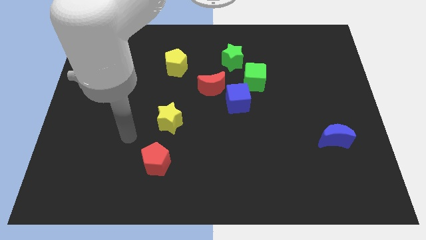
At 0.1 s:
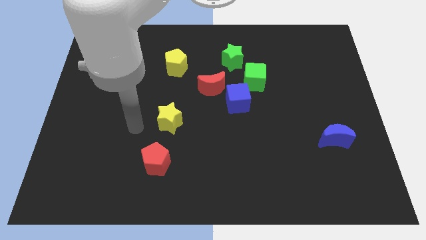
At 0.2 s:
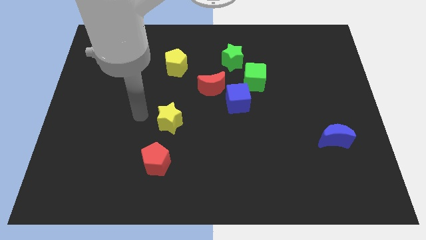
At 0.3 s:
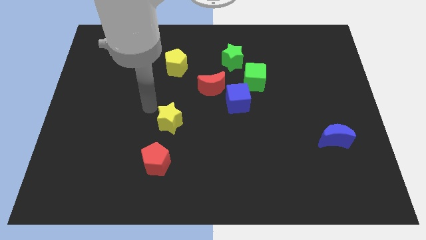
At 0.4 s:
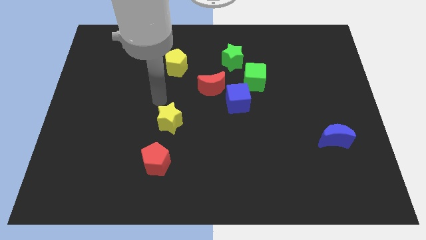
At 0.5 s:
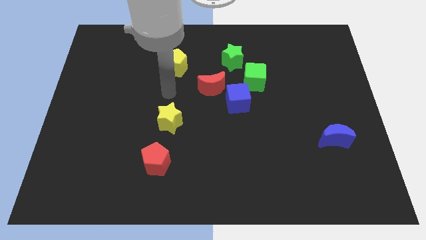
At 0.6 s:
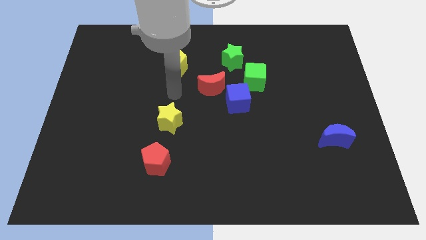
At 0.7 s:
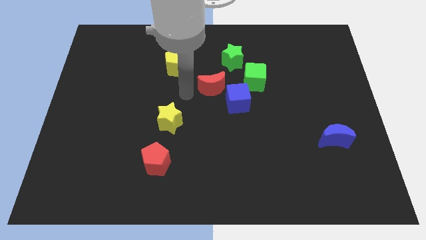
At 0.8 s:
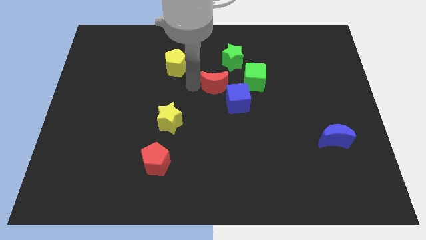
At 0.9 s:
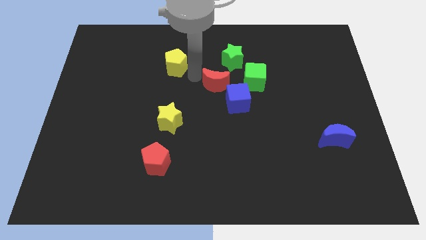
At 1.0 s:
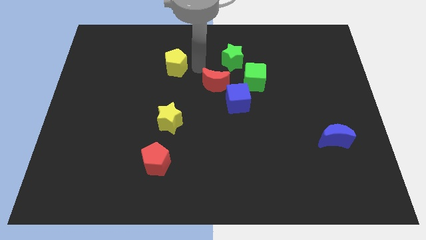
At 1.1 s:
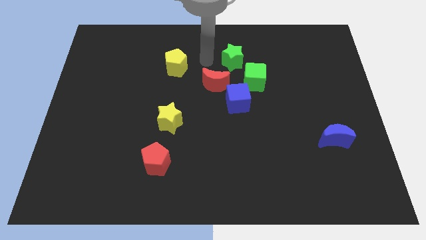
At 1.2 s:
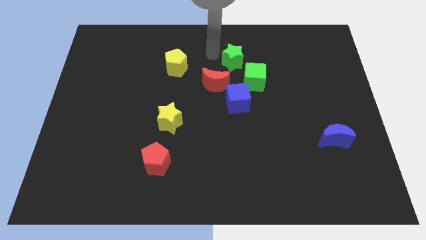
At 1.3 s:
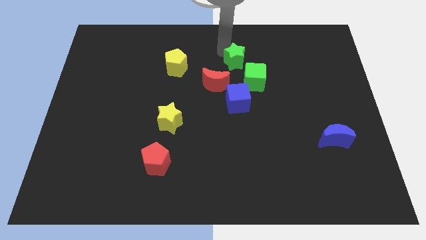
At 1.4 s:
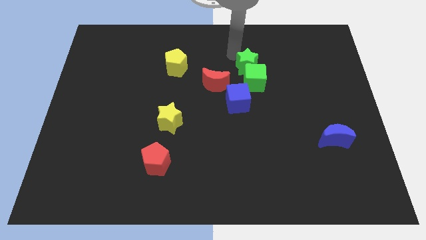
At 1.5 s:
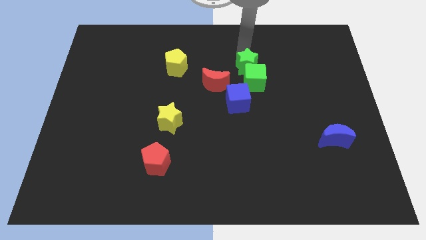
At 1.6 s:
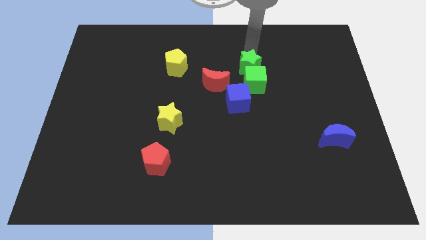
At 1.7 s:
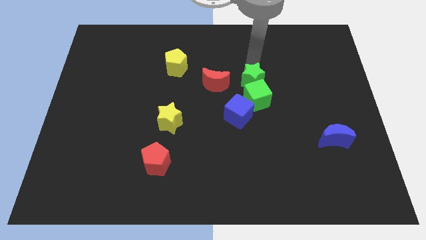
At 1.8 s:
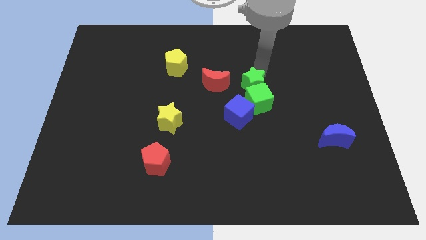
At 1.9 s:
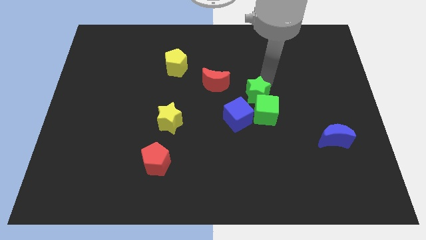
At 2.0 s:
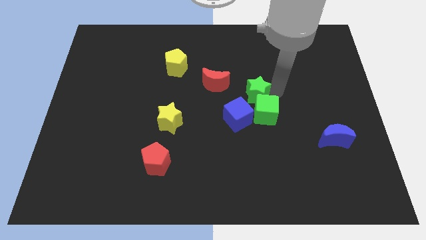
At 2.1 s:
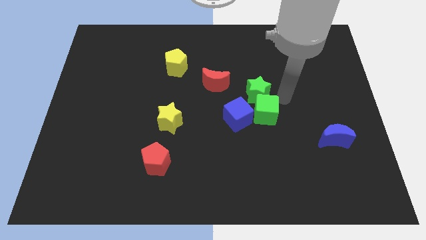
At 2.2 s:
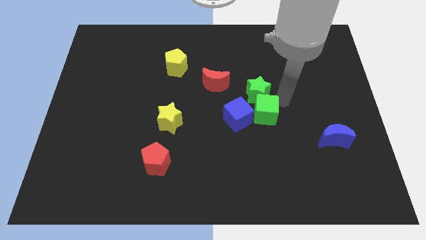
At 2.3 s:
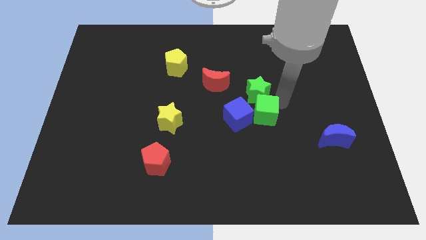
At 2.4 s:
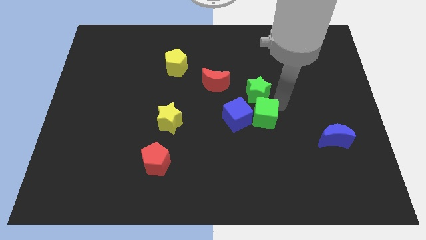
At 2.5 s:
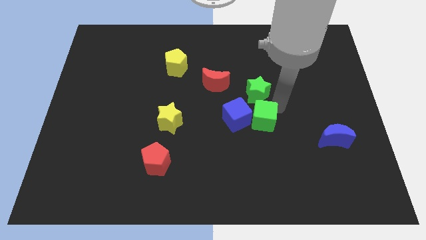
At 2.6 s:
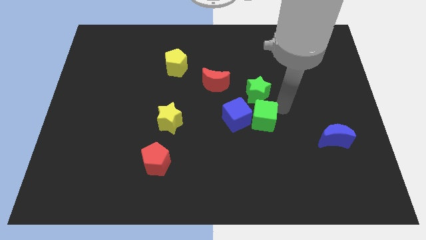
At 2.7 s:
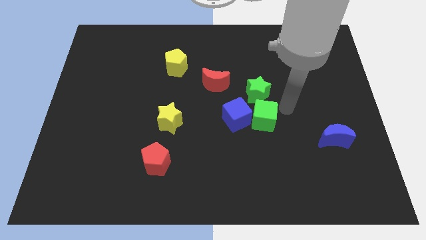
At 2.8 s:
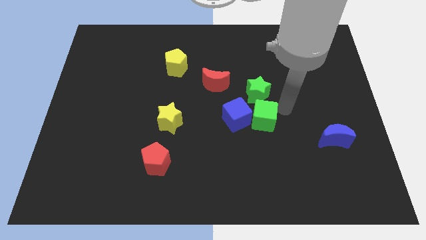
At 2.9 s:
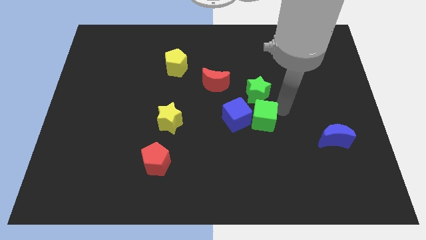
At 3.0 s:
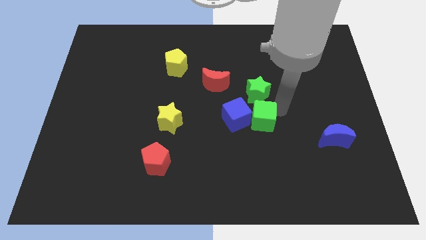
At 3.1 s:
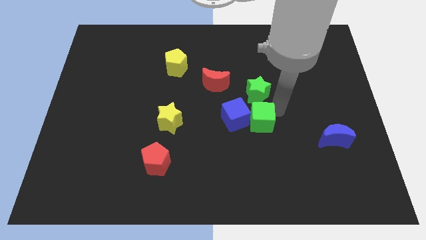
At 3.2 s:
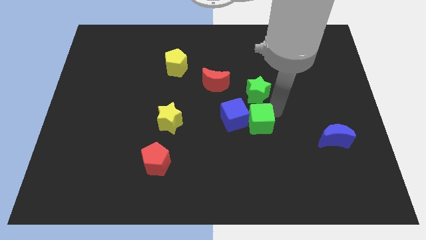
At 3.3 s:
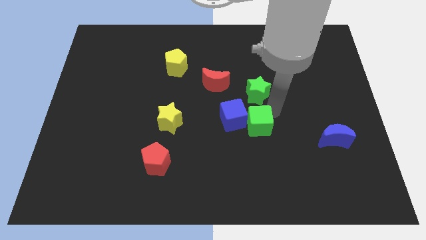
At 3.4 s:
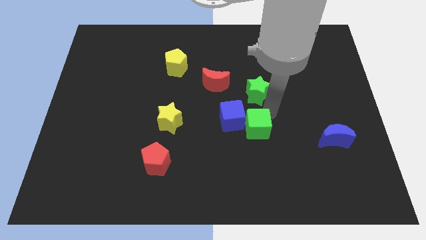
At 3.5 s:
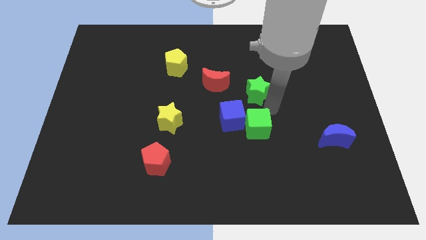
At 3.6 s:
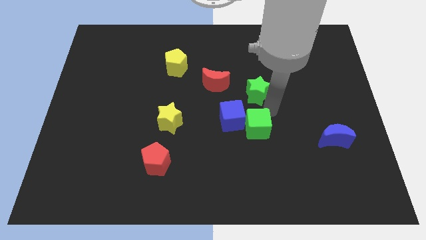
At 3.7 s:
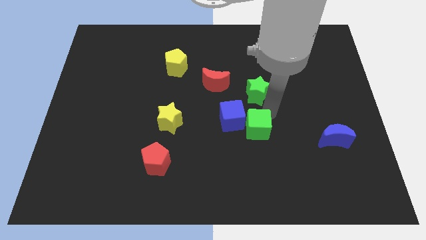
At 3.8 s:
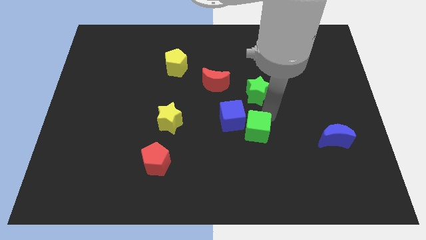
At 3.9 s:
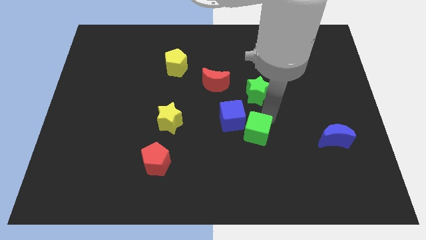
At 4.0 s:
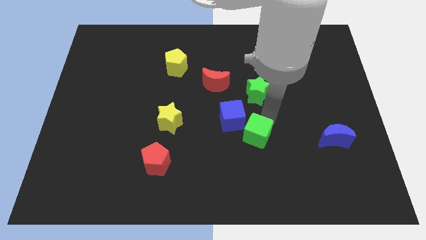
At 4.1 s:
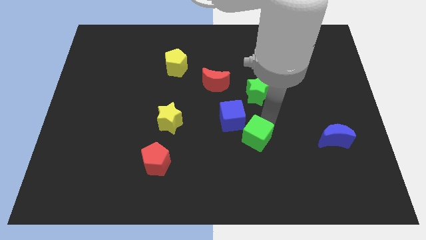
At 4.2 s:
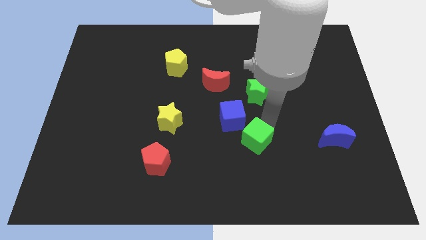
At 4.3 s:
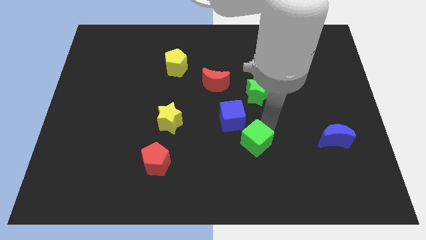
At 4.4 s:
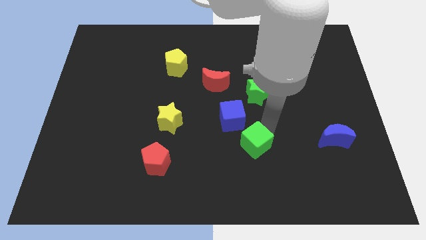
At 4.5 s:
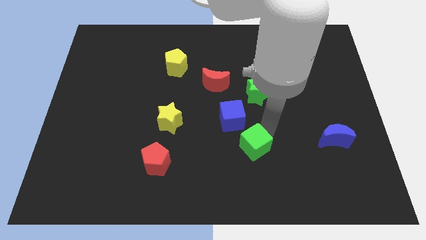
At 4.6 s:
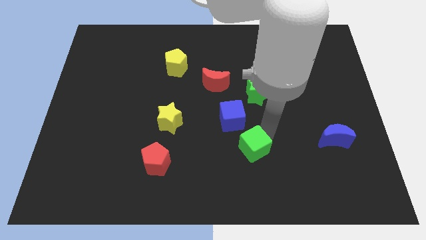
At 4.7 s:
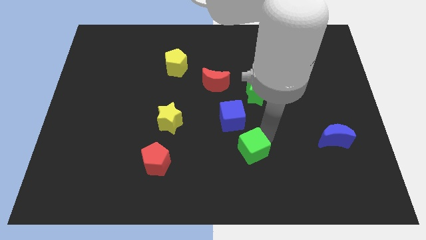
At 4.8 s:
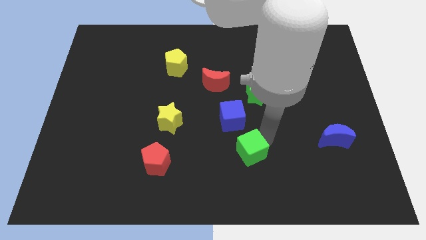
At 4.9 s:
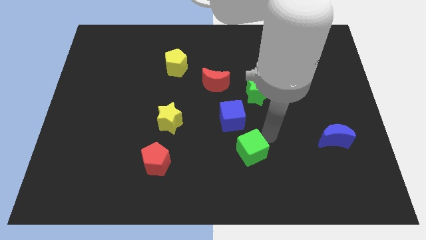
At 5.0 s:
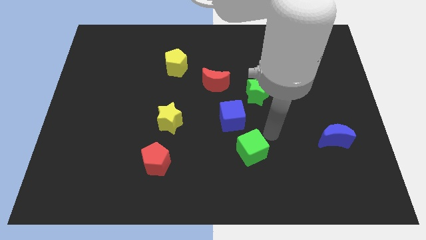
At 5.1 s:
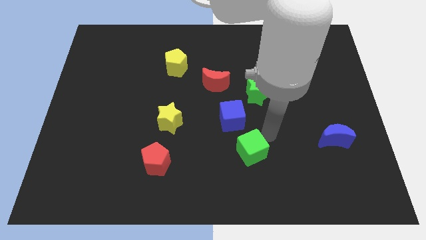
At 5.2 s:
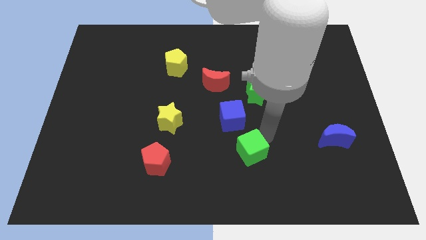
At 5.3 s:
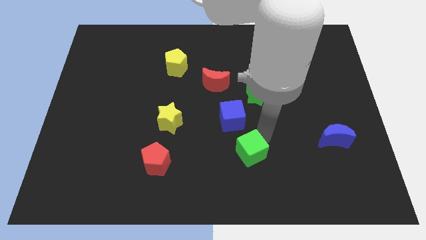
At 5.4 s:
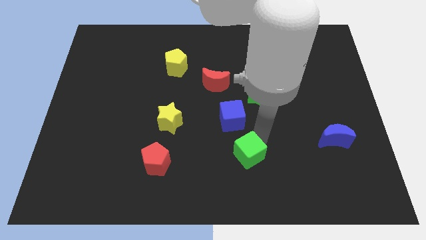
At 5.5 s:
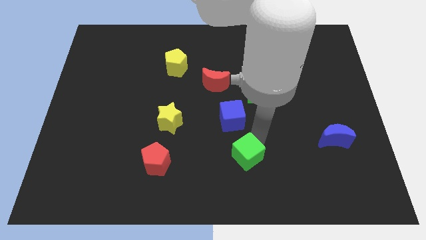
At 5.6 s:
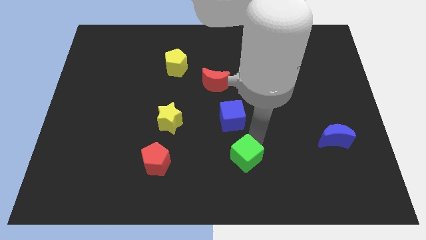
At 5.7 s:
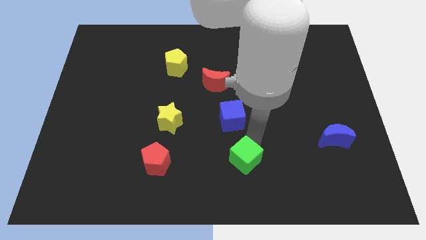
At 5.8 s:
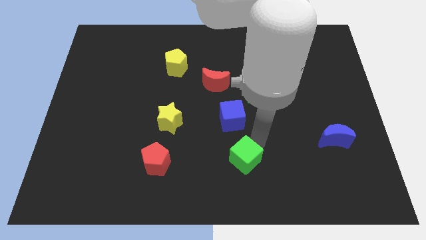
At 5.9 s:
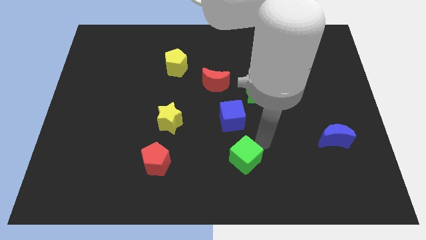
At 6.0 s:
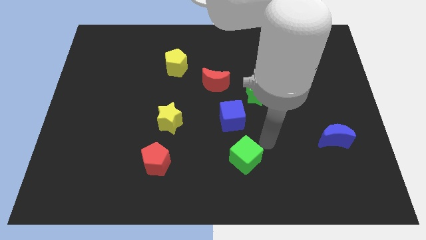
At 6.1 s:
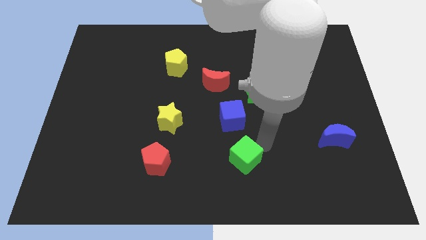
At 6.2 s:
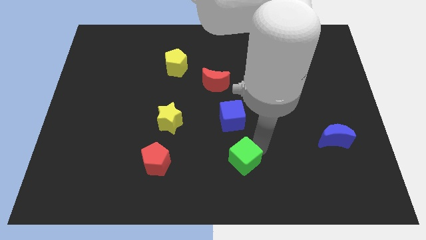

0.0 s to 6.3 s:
slide the green cube to the bottom side

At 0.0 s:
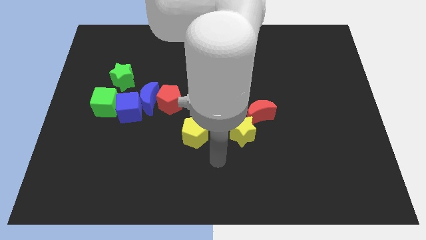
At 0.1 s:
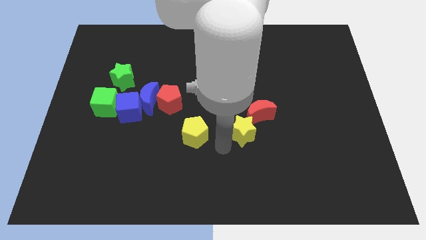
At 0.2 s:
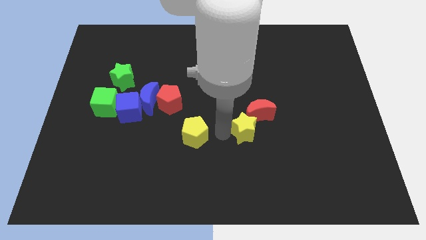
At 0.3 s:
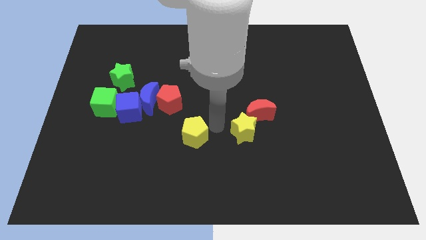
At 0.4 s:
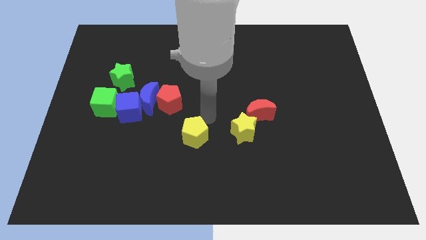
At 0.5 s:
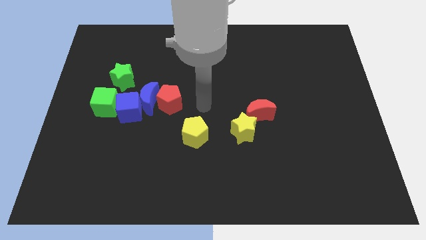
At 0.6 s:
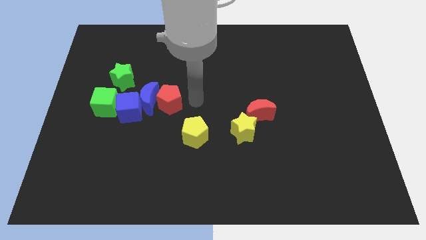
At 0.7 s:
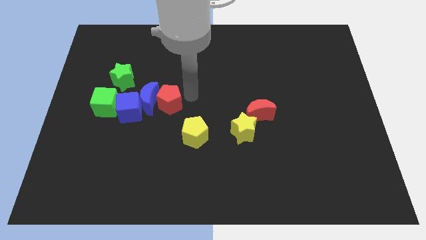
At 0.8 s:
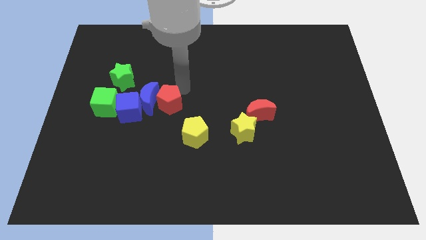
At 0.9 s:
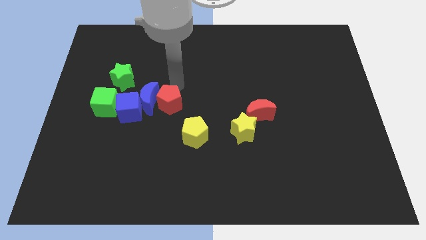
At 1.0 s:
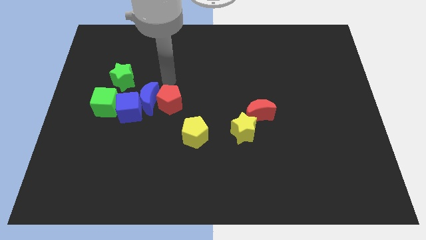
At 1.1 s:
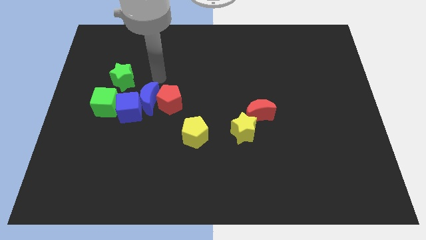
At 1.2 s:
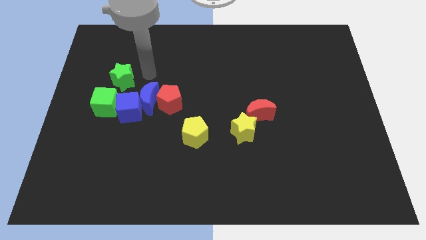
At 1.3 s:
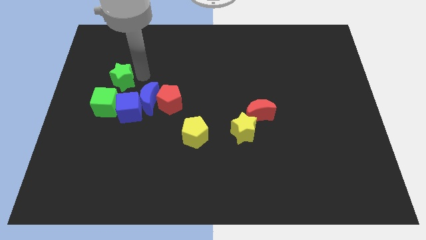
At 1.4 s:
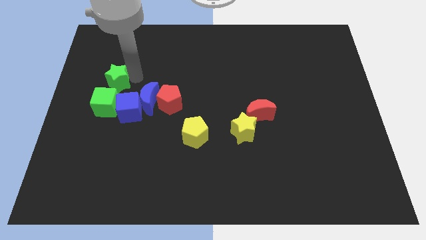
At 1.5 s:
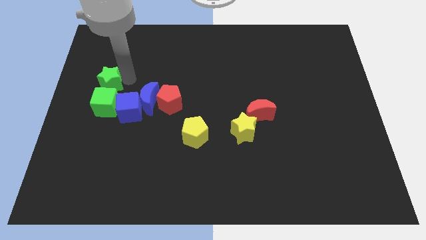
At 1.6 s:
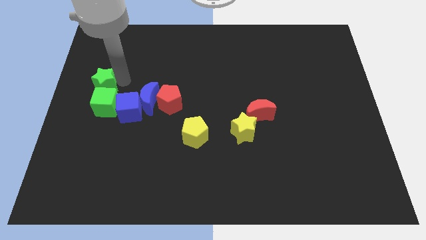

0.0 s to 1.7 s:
push the green star to the center left

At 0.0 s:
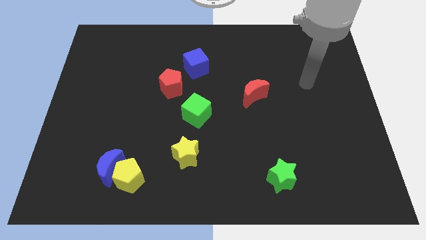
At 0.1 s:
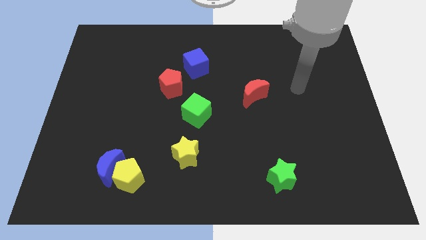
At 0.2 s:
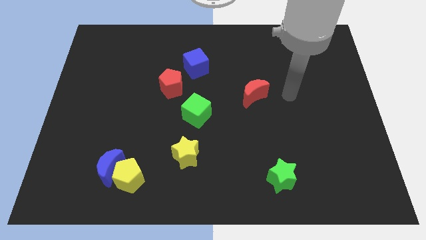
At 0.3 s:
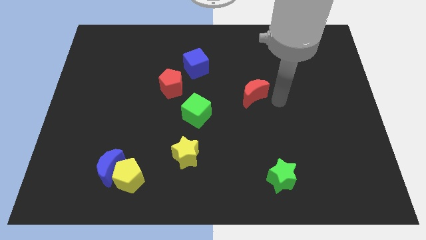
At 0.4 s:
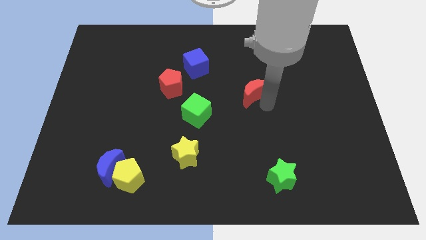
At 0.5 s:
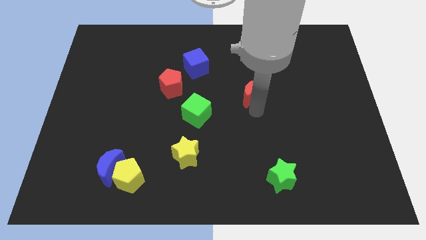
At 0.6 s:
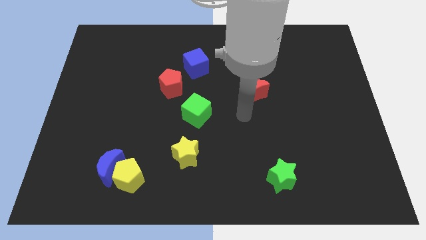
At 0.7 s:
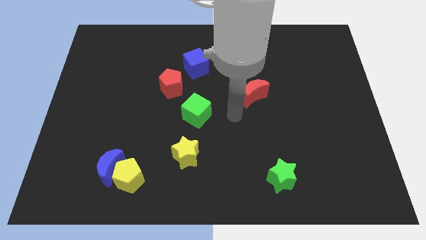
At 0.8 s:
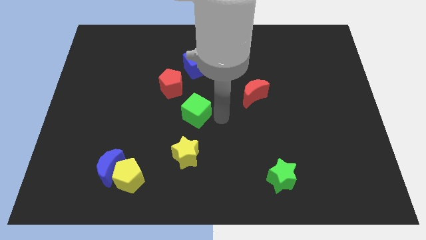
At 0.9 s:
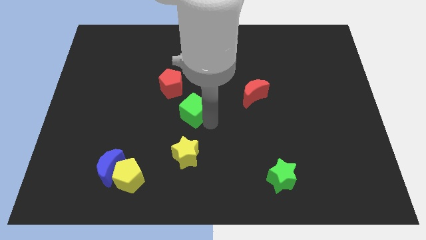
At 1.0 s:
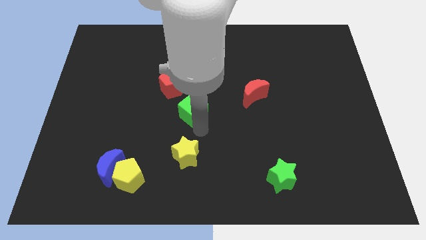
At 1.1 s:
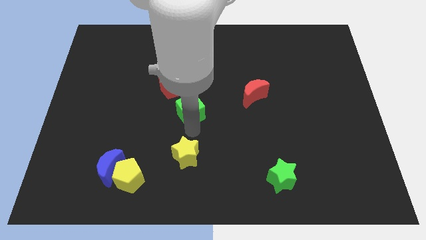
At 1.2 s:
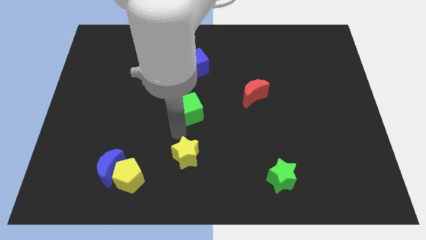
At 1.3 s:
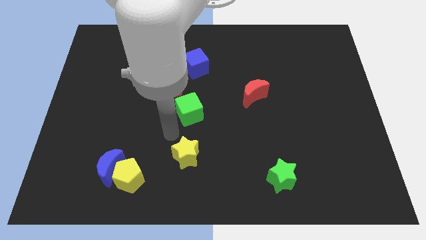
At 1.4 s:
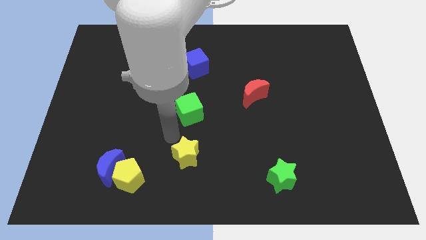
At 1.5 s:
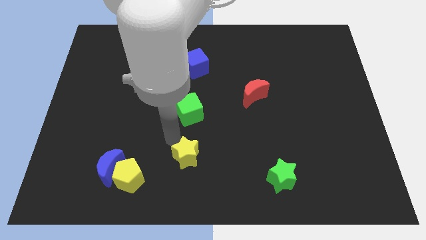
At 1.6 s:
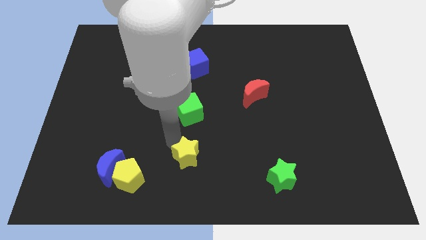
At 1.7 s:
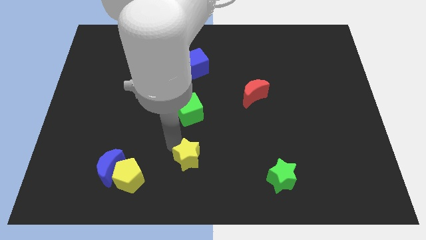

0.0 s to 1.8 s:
slide the yellow star to the bottom side
